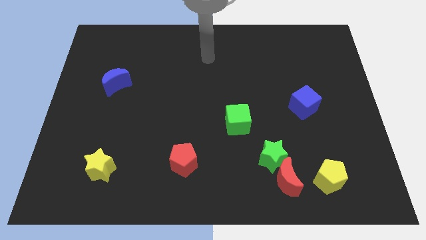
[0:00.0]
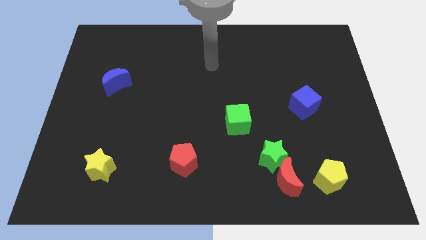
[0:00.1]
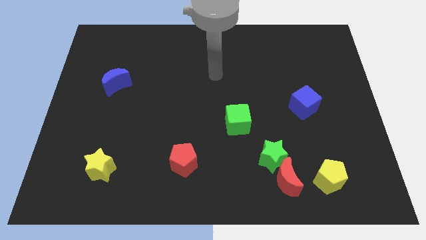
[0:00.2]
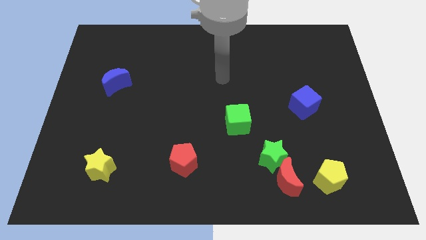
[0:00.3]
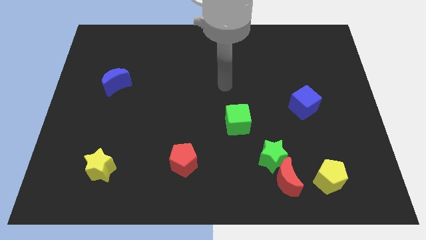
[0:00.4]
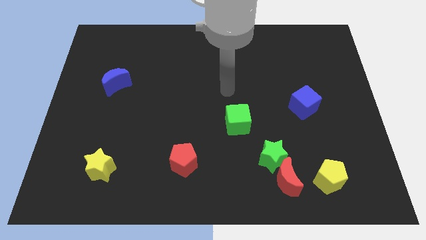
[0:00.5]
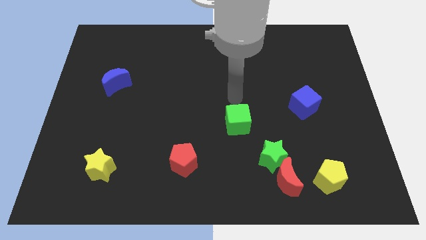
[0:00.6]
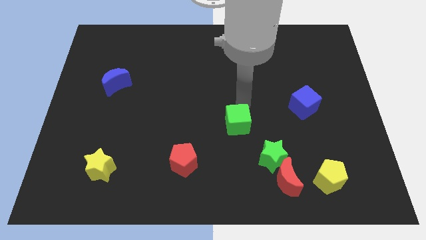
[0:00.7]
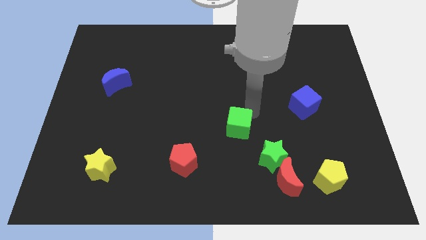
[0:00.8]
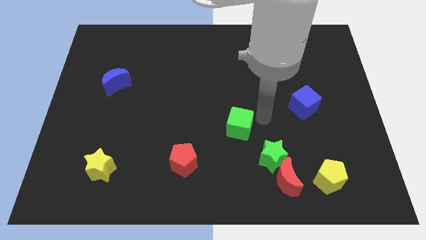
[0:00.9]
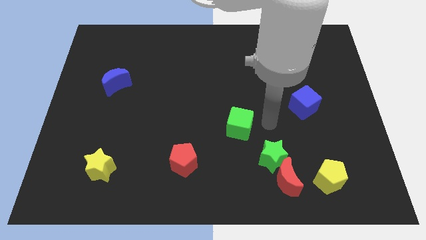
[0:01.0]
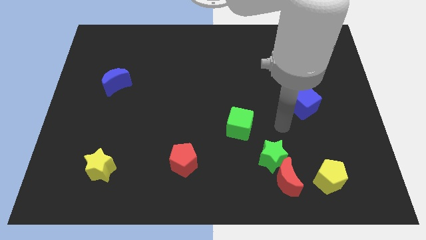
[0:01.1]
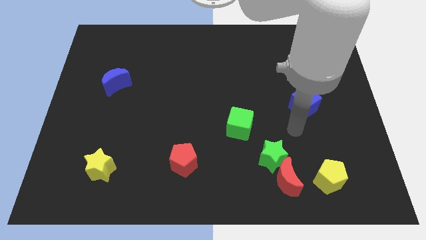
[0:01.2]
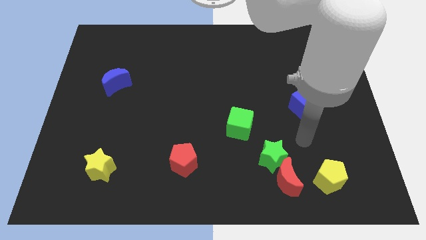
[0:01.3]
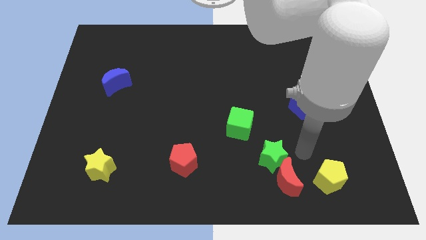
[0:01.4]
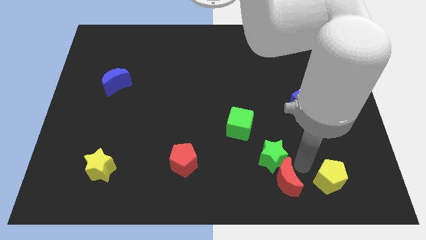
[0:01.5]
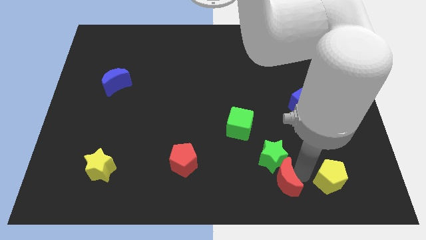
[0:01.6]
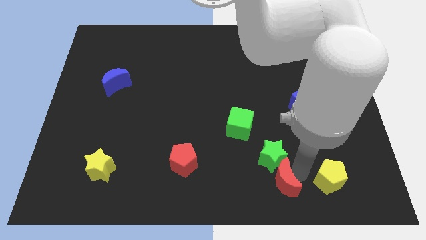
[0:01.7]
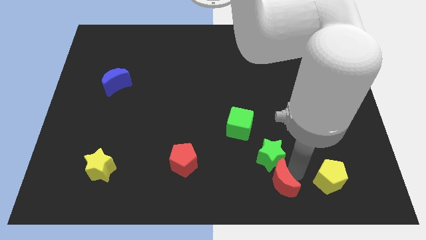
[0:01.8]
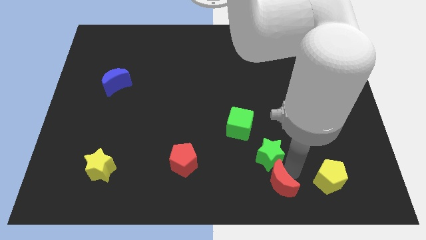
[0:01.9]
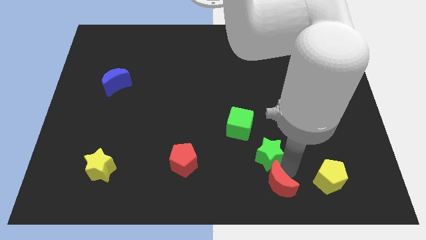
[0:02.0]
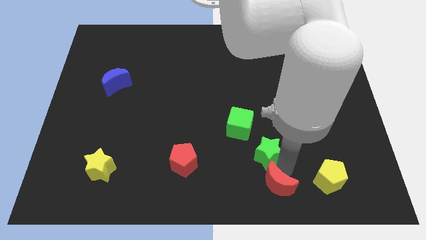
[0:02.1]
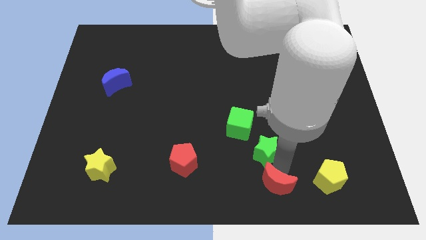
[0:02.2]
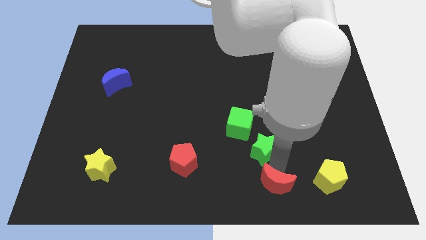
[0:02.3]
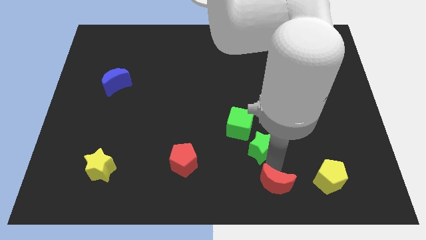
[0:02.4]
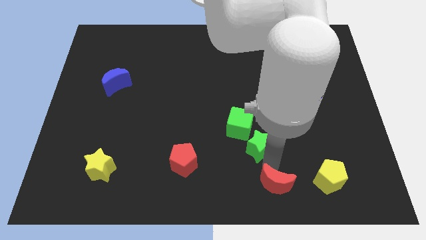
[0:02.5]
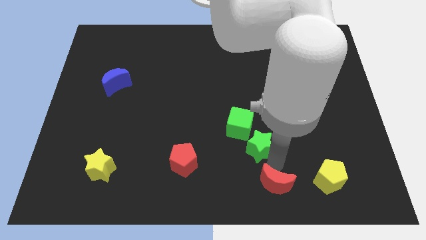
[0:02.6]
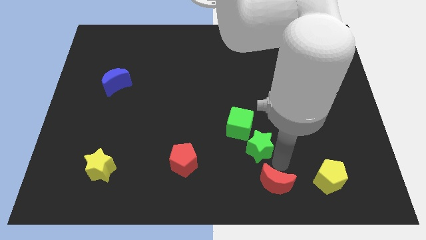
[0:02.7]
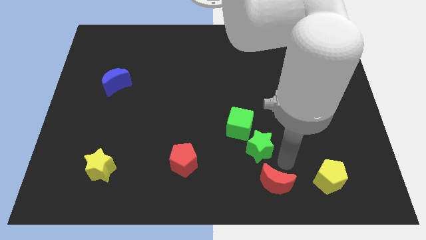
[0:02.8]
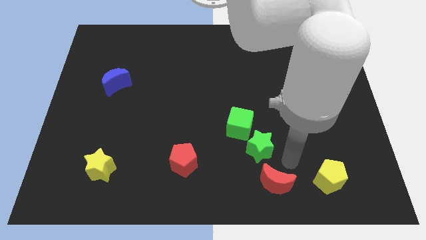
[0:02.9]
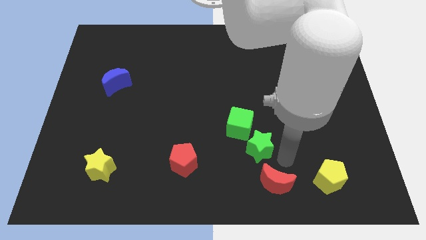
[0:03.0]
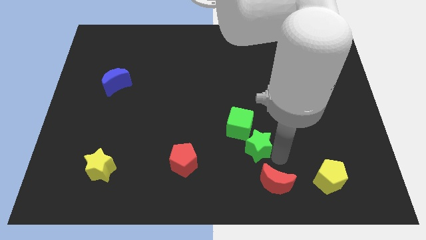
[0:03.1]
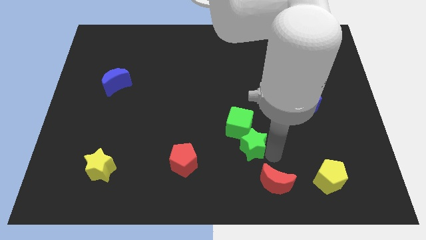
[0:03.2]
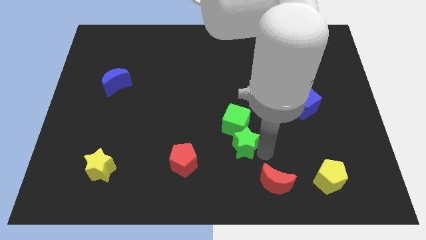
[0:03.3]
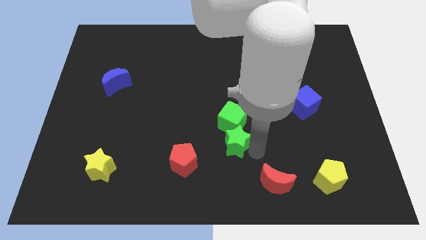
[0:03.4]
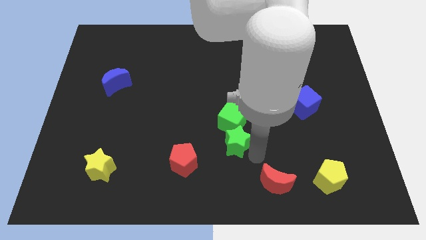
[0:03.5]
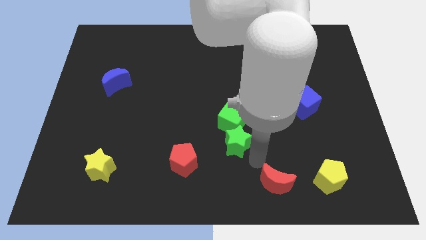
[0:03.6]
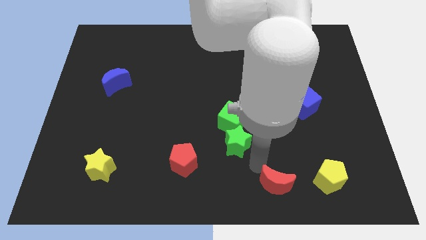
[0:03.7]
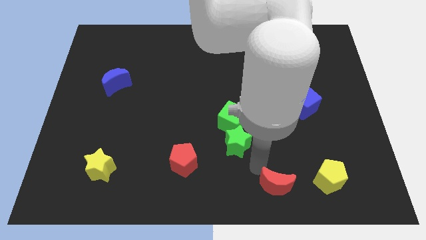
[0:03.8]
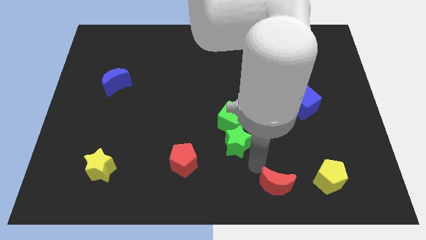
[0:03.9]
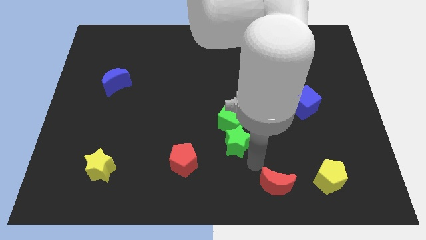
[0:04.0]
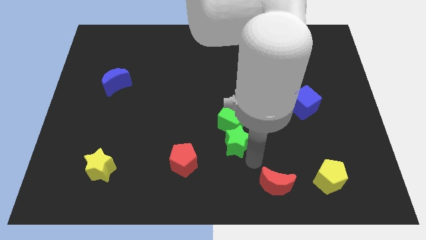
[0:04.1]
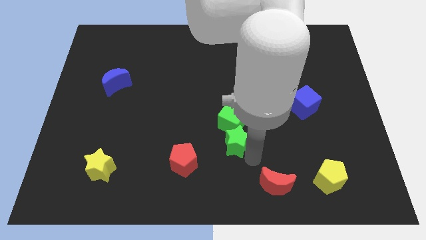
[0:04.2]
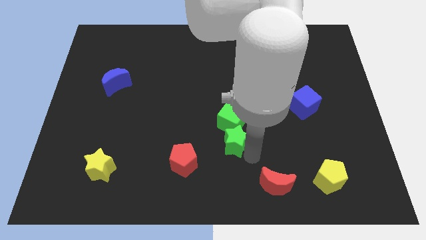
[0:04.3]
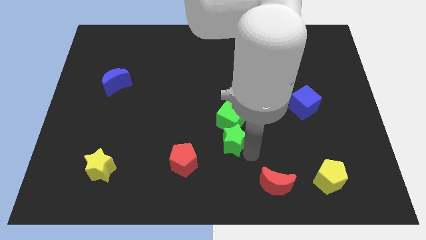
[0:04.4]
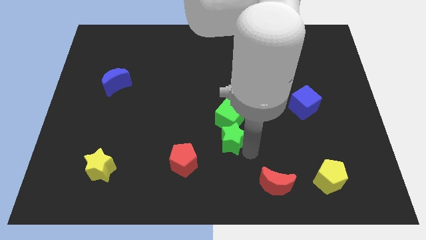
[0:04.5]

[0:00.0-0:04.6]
move the green star to the center

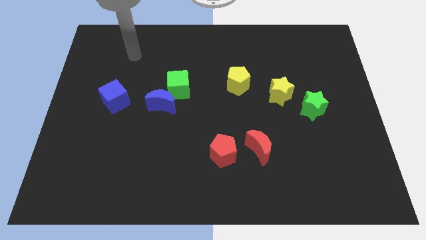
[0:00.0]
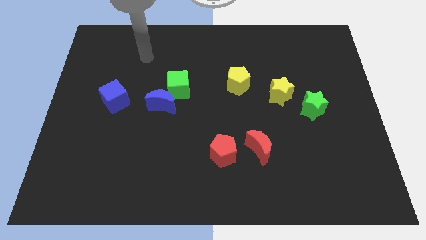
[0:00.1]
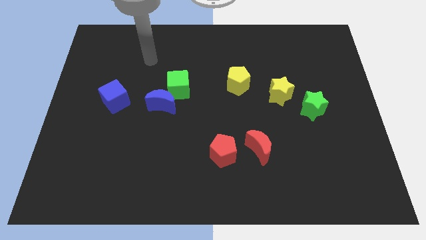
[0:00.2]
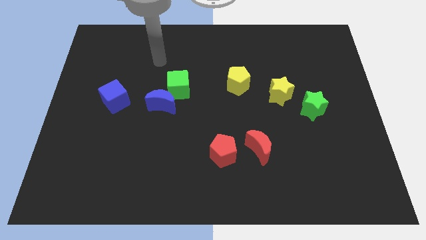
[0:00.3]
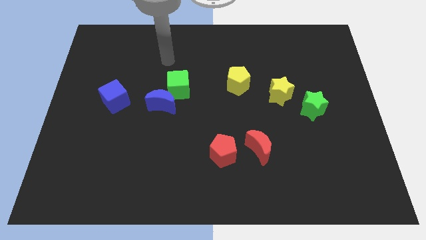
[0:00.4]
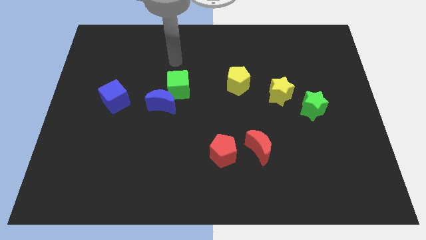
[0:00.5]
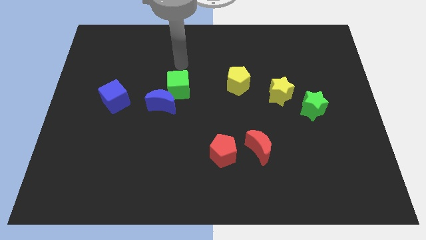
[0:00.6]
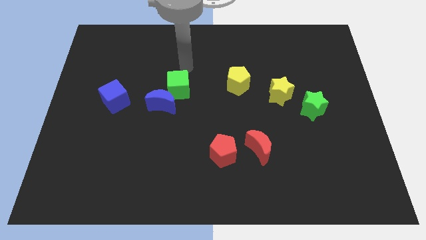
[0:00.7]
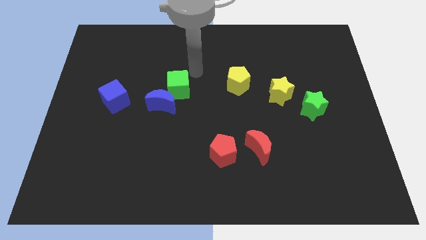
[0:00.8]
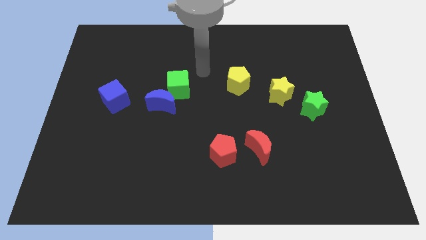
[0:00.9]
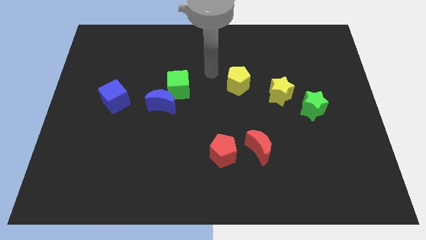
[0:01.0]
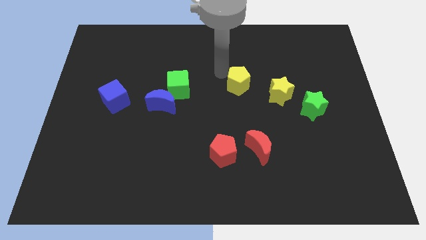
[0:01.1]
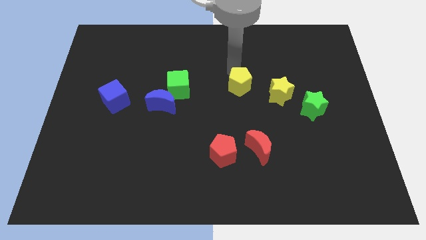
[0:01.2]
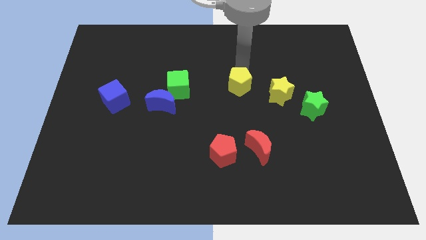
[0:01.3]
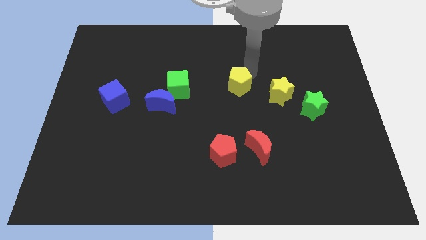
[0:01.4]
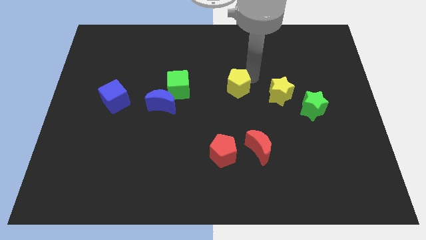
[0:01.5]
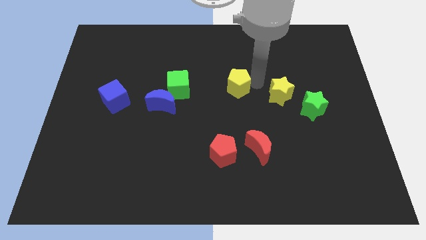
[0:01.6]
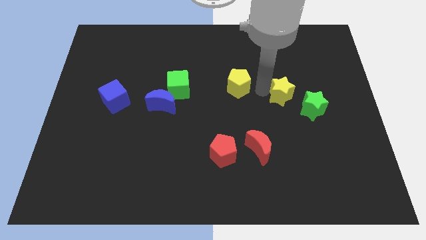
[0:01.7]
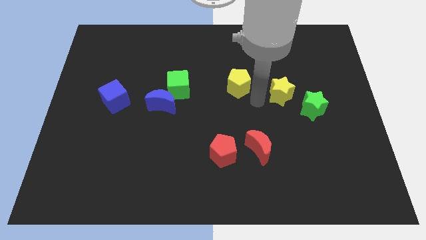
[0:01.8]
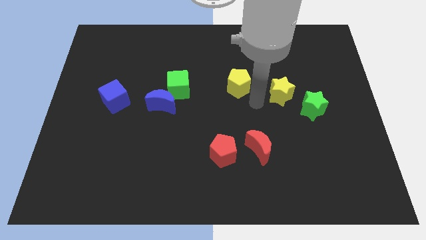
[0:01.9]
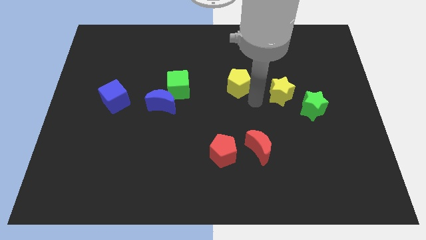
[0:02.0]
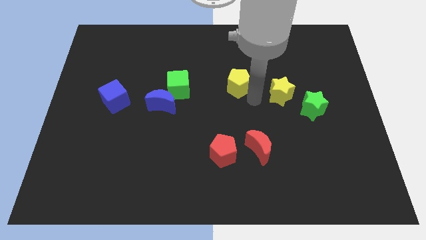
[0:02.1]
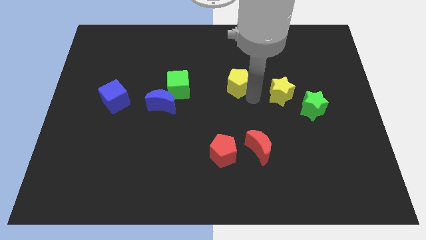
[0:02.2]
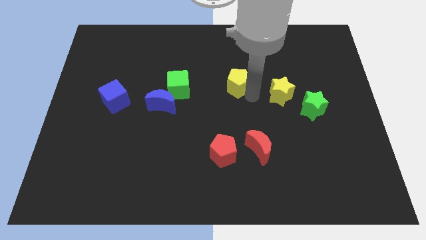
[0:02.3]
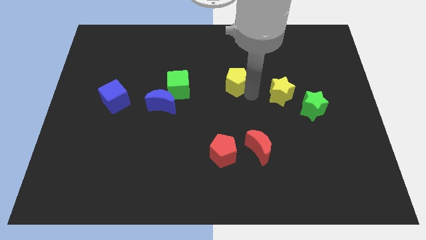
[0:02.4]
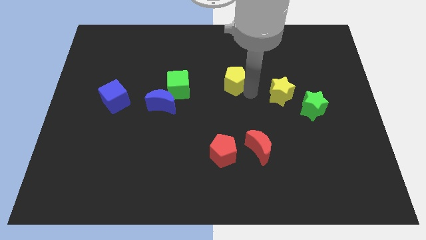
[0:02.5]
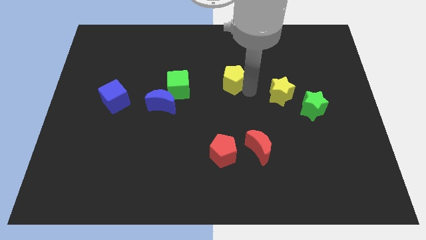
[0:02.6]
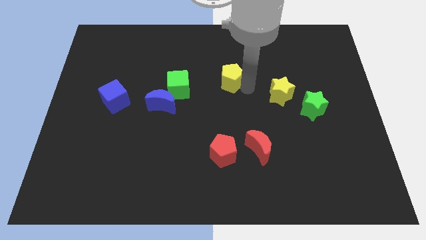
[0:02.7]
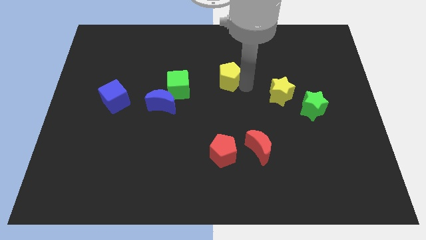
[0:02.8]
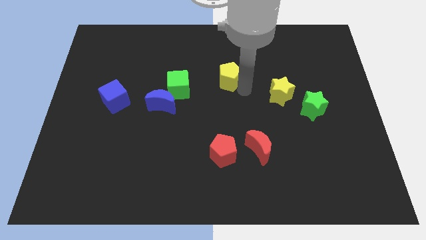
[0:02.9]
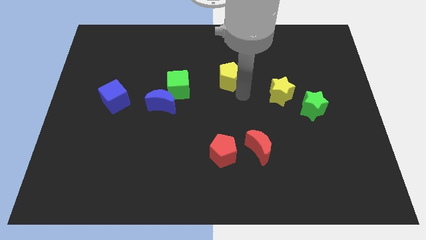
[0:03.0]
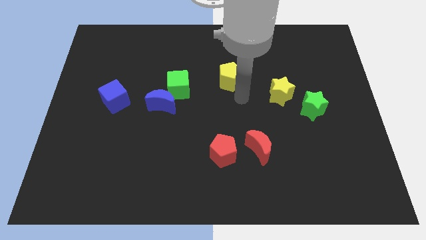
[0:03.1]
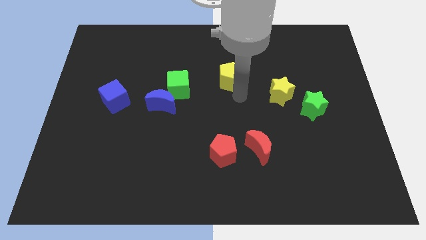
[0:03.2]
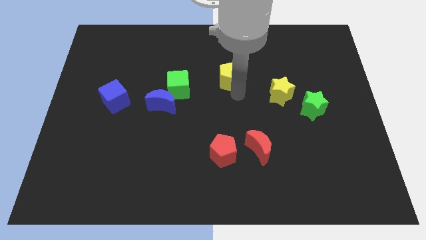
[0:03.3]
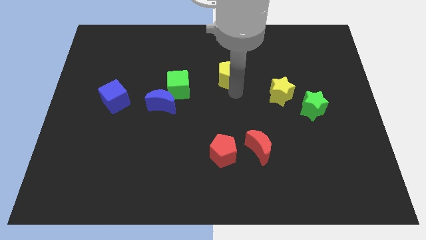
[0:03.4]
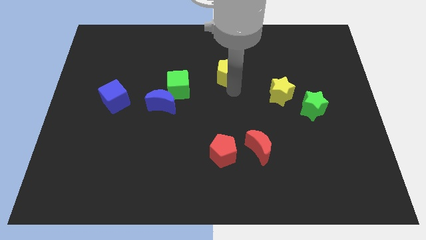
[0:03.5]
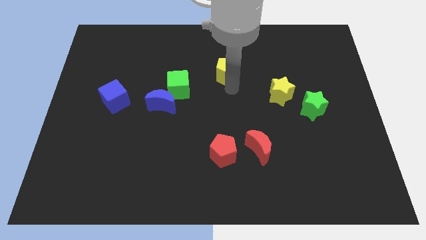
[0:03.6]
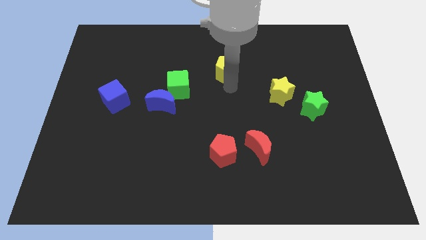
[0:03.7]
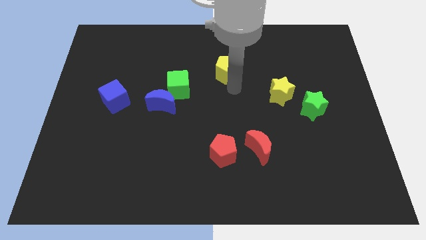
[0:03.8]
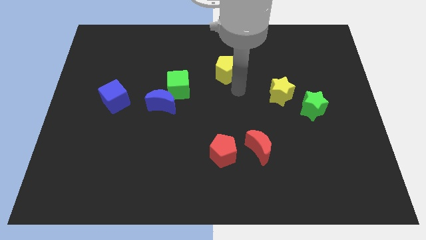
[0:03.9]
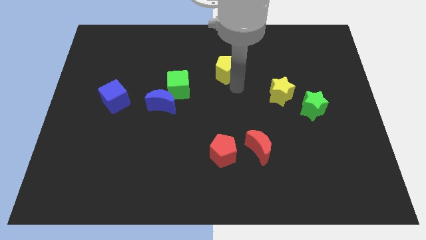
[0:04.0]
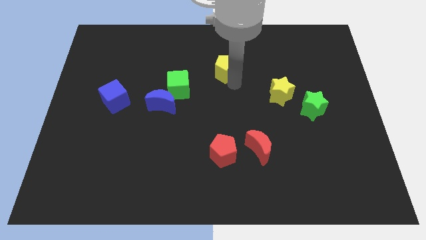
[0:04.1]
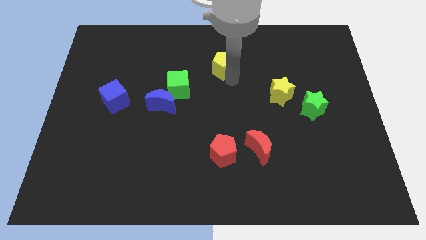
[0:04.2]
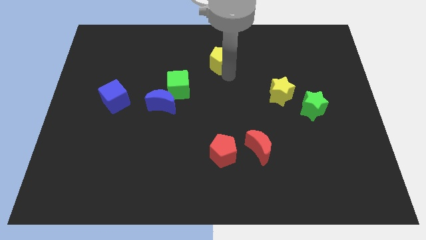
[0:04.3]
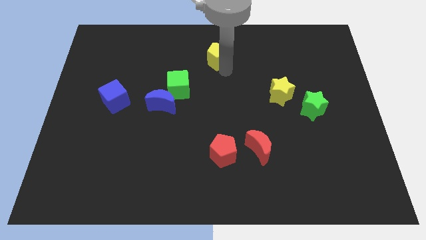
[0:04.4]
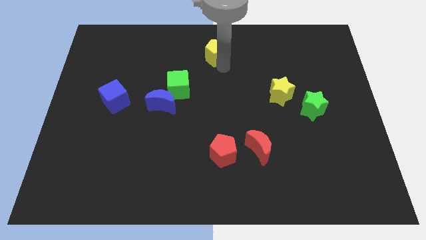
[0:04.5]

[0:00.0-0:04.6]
push the yellow pentagon to the top side
